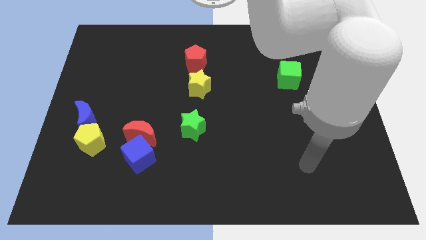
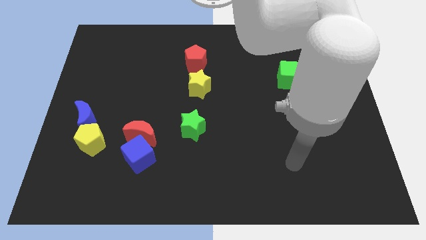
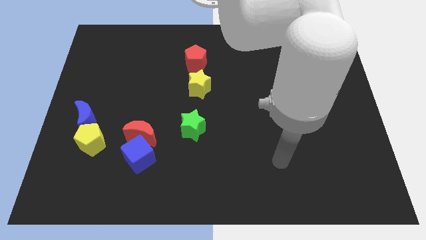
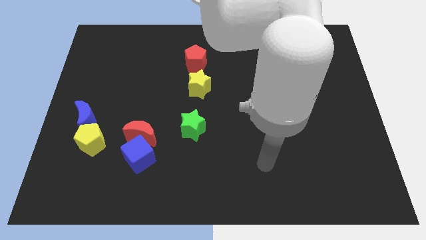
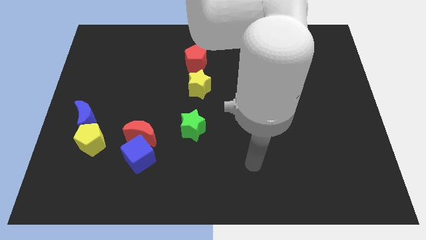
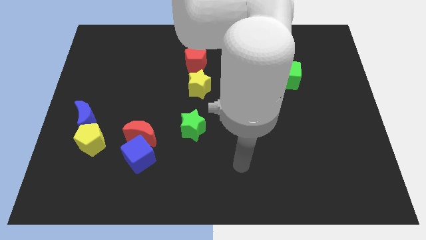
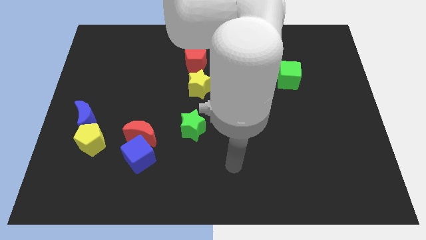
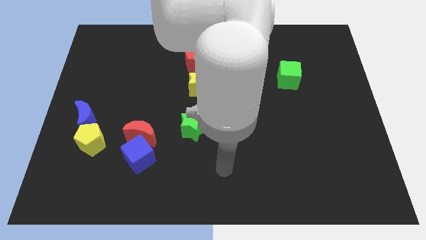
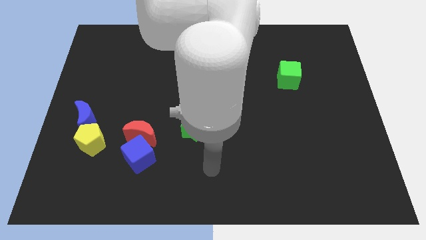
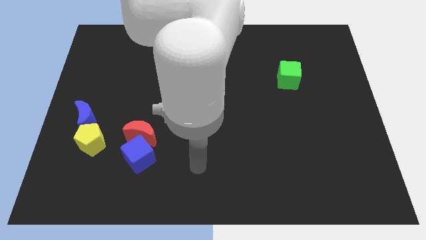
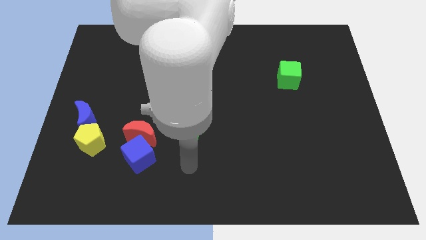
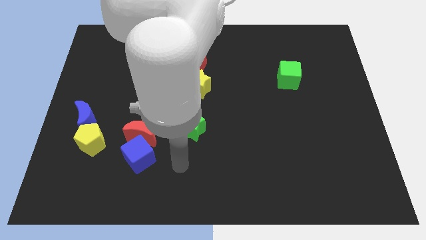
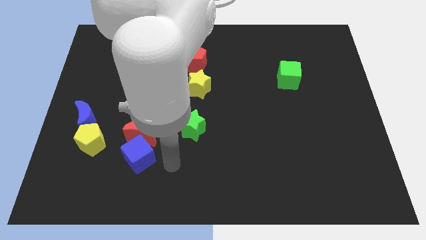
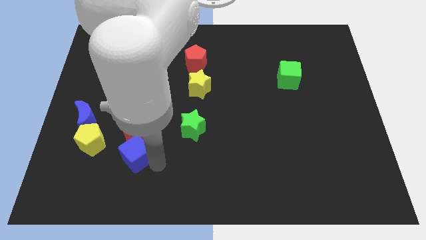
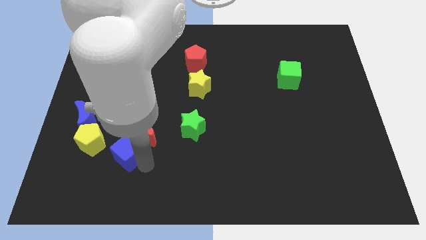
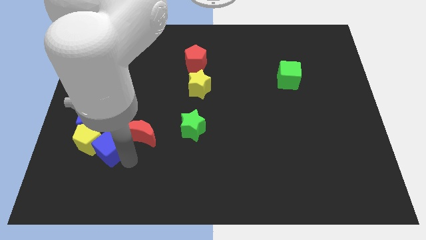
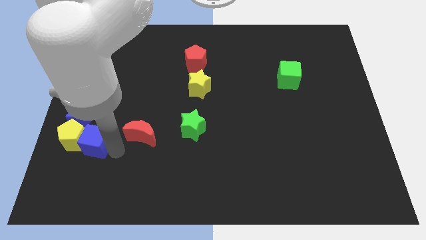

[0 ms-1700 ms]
separate the red moon from the blue cube

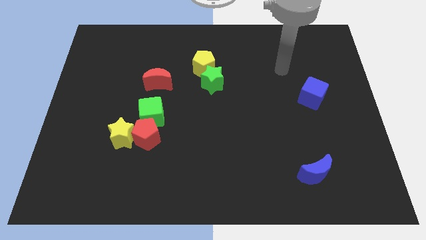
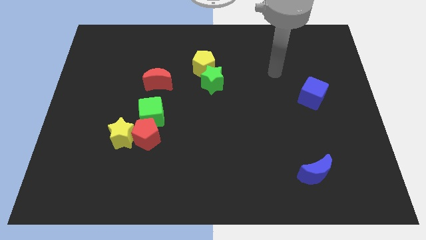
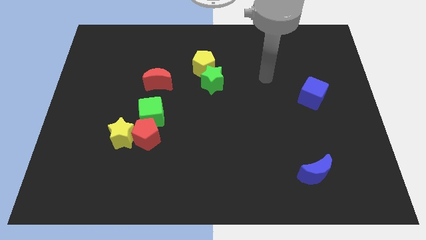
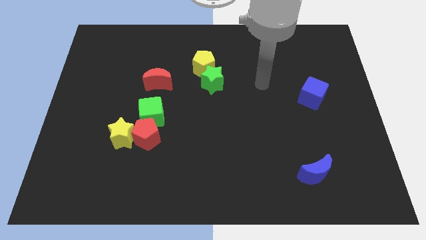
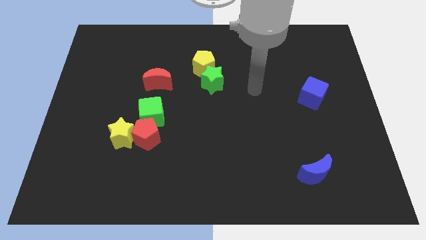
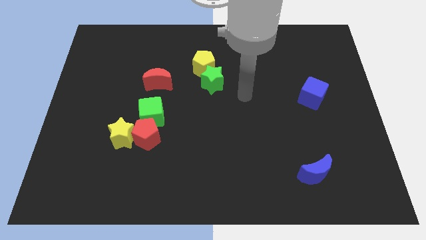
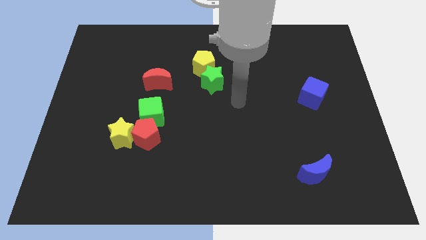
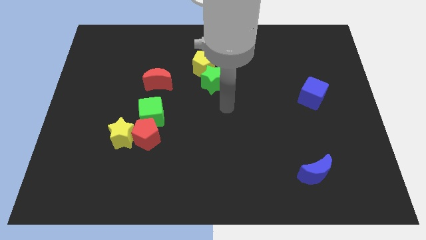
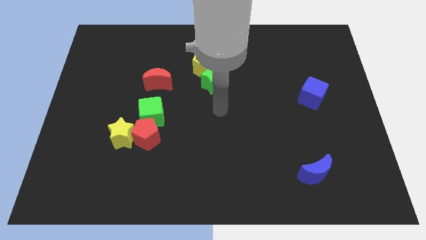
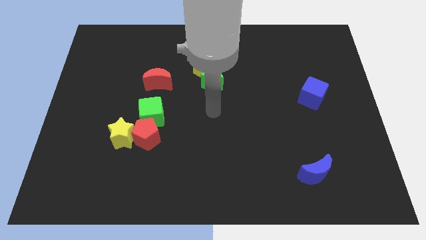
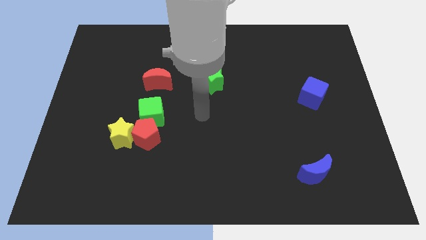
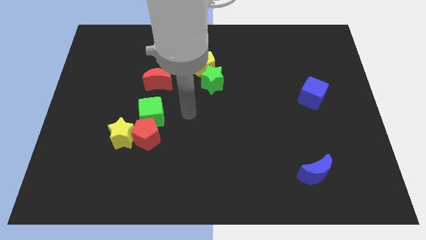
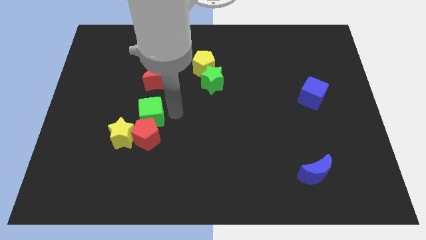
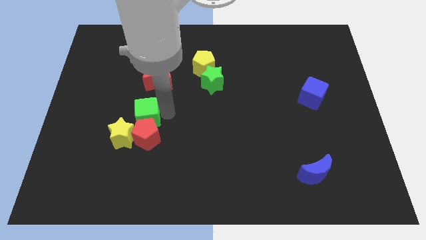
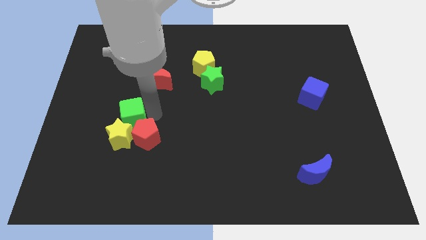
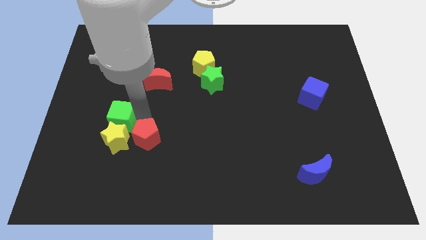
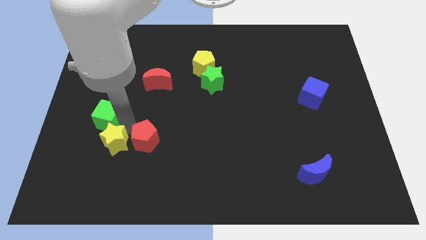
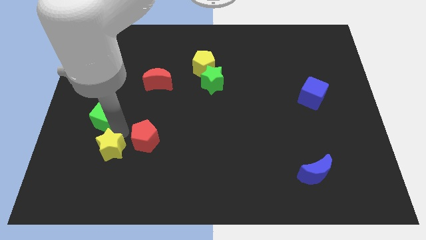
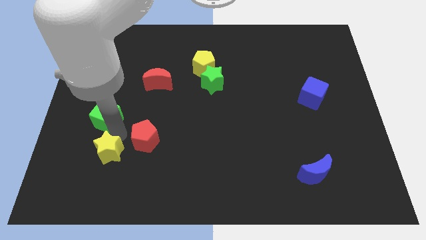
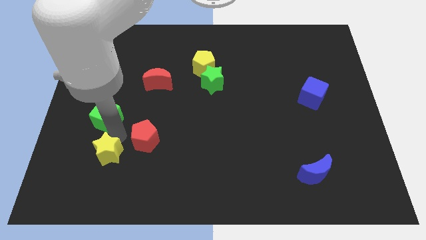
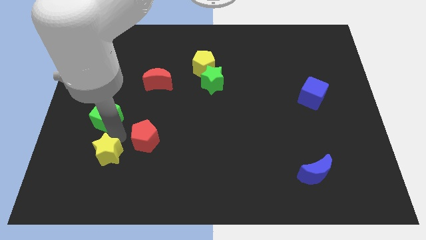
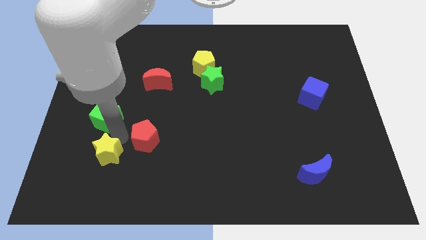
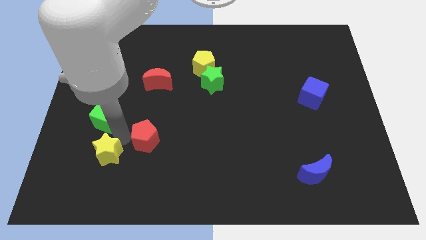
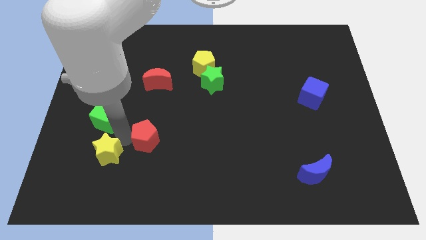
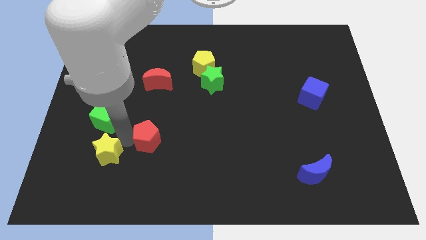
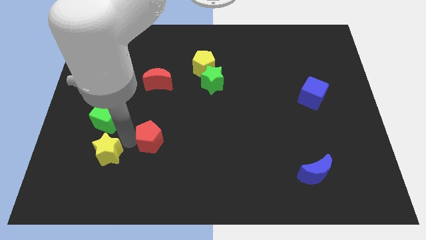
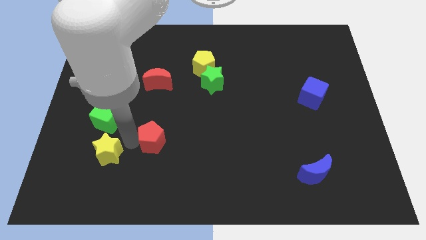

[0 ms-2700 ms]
pull the red pentagon apart from the yellow star and green cube

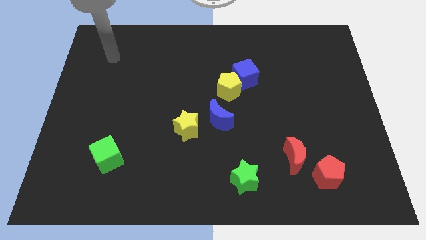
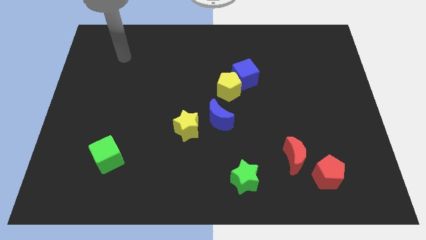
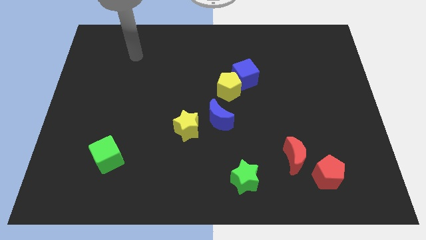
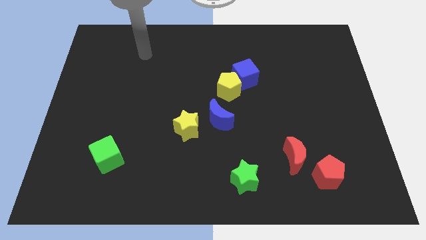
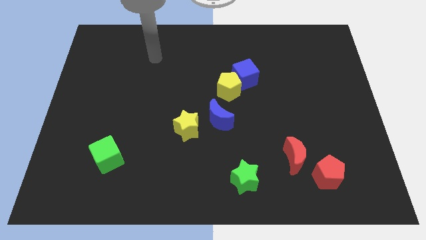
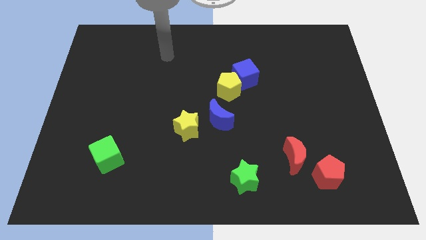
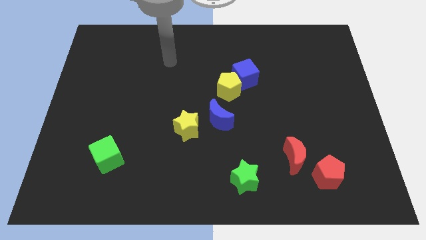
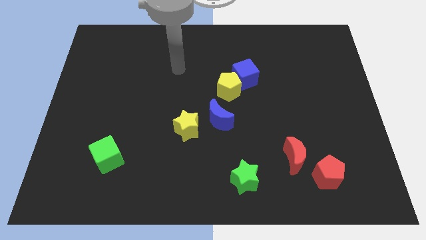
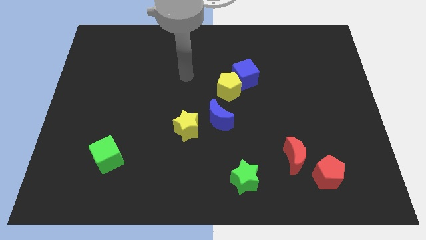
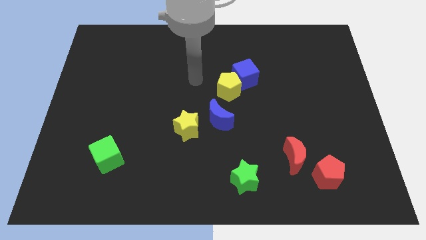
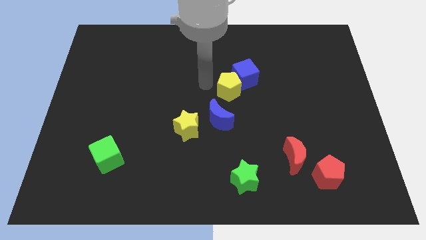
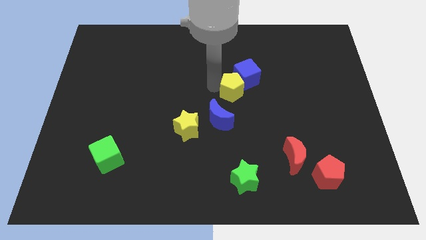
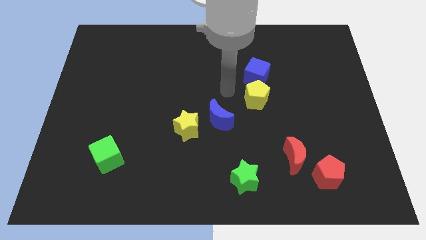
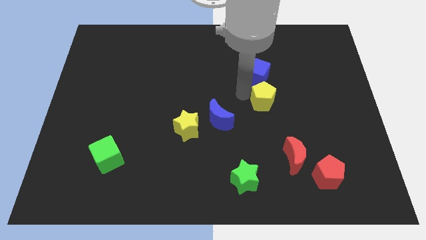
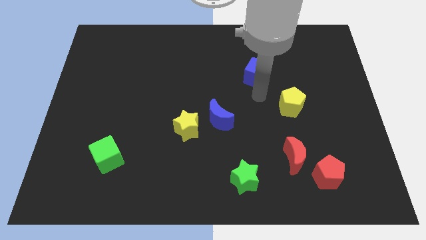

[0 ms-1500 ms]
move the blue cube away from the yellow pentagon

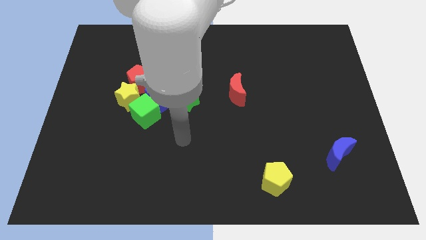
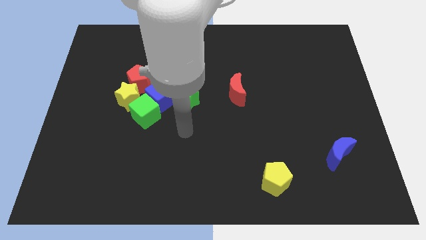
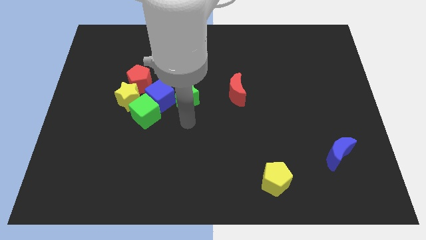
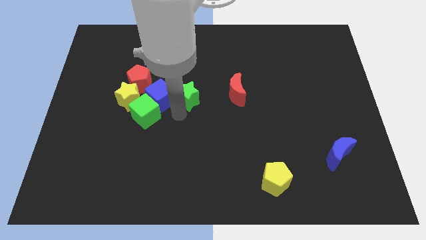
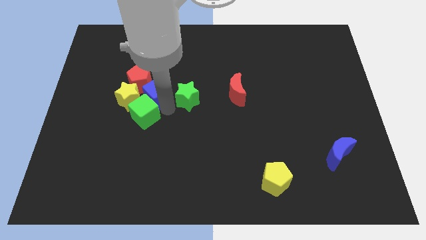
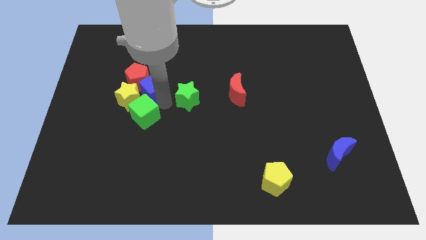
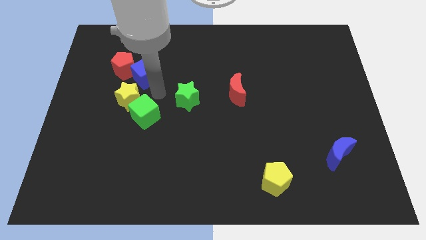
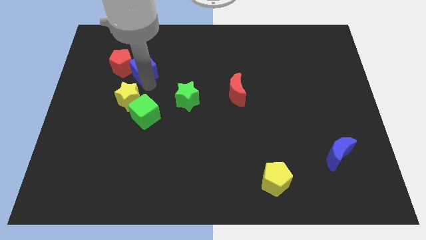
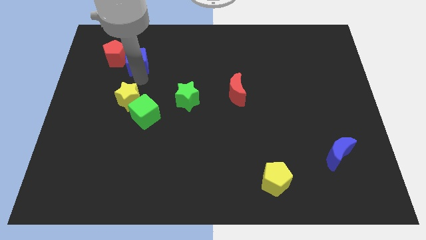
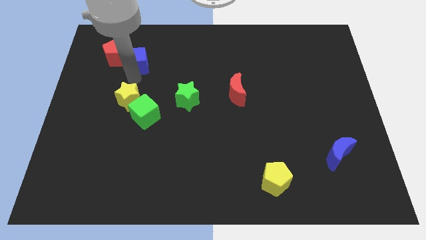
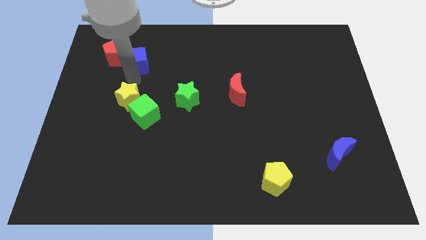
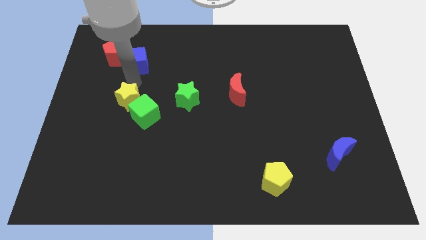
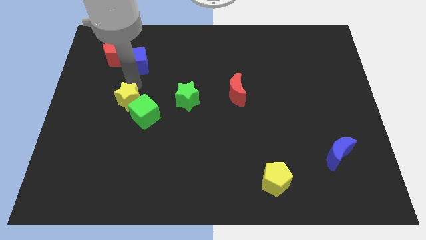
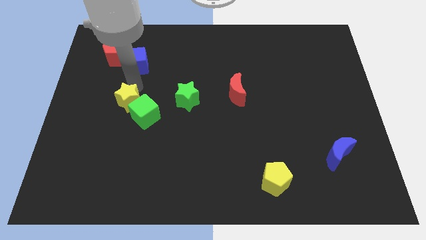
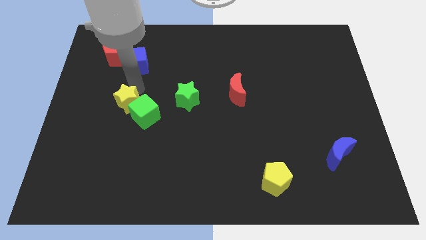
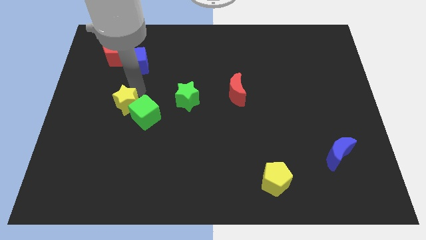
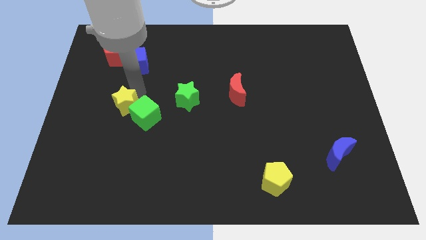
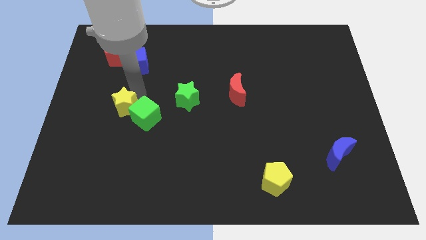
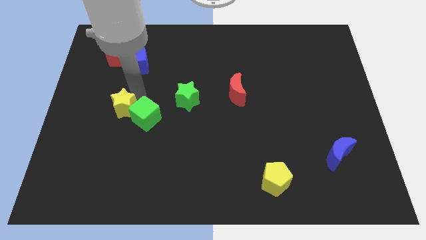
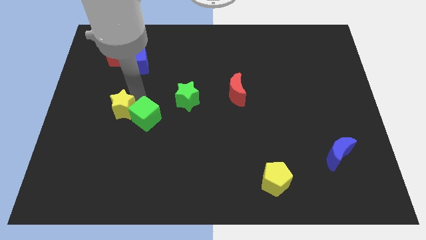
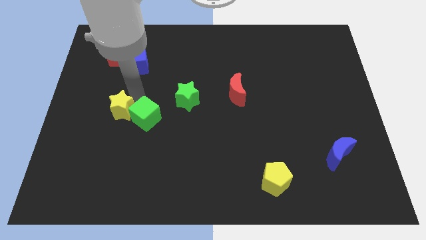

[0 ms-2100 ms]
move the yellow star away from the red pentagon, green cube, and blue cube

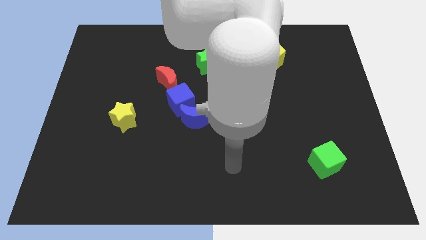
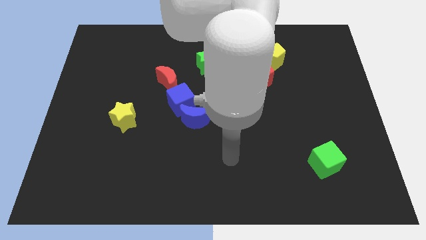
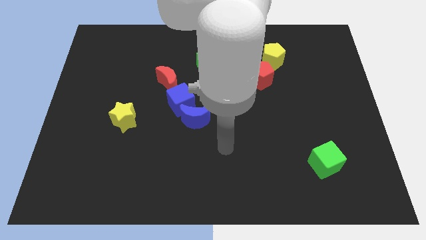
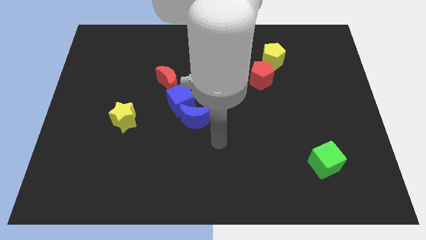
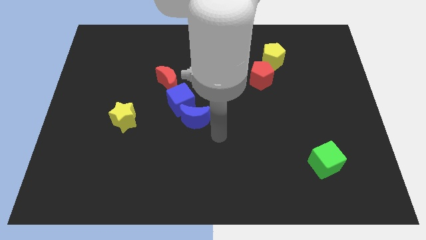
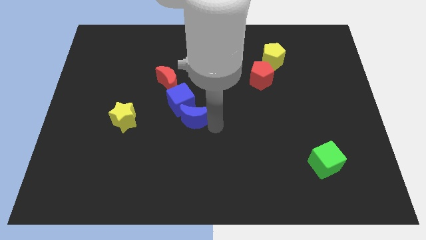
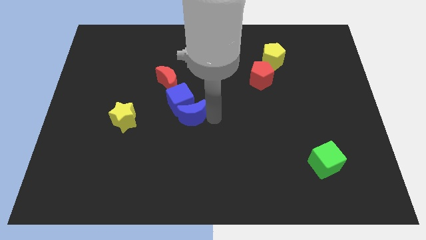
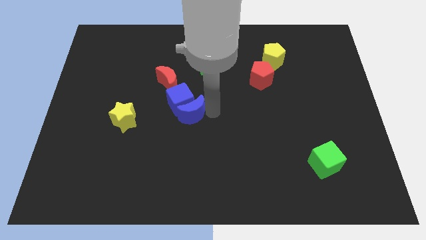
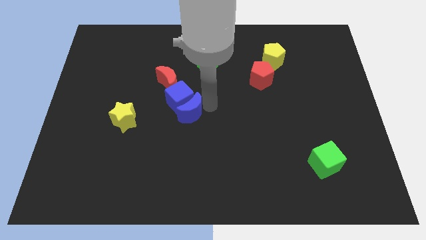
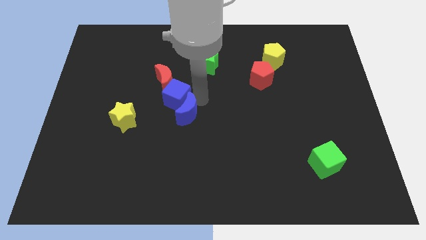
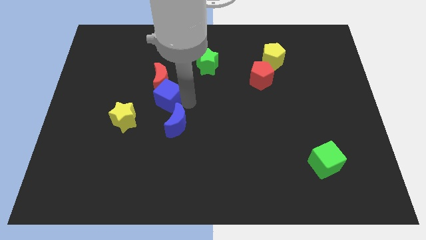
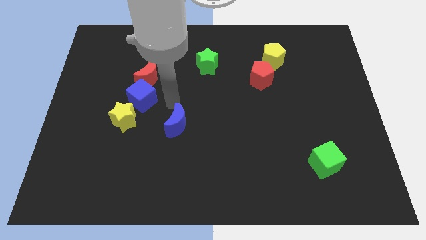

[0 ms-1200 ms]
pull the blue moon apart from the blue cube
